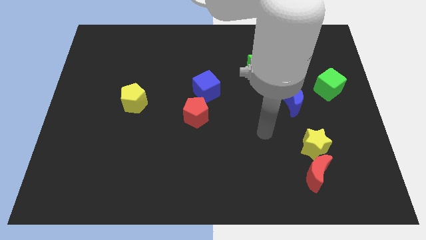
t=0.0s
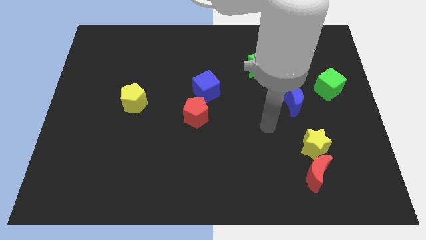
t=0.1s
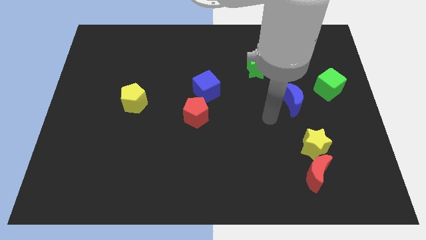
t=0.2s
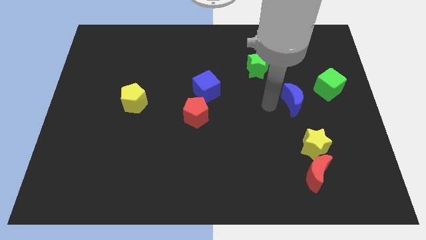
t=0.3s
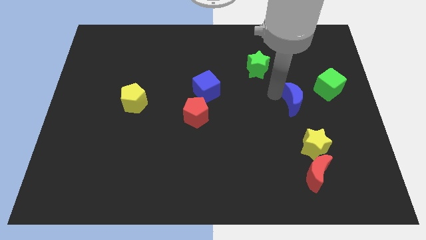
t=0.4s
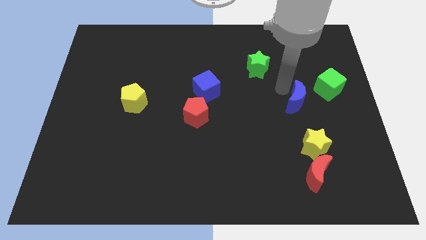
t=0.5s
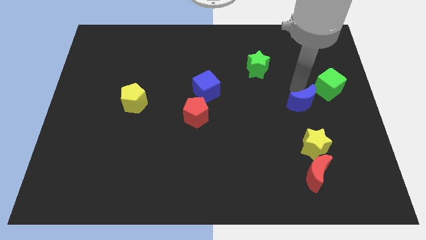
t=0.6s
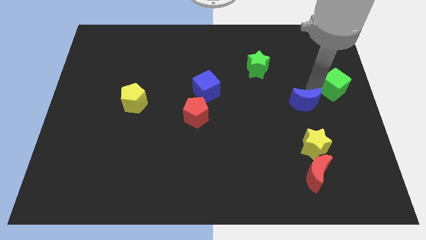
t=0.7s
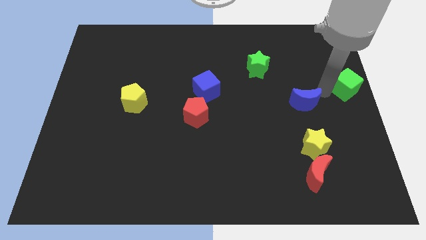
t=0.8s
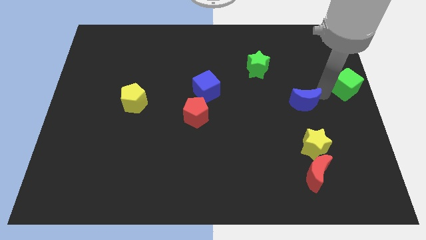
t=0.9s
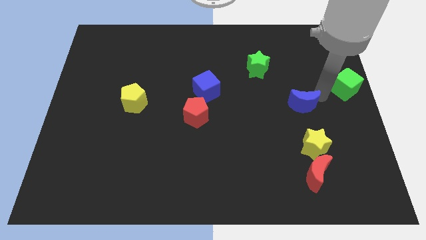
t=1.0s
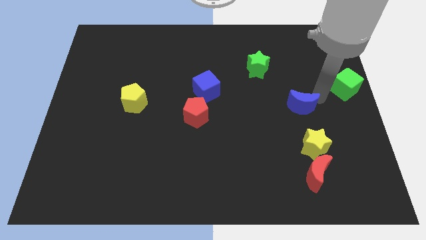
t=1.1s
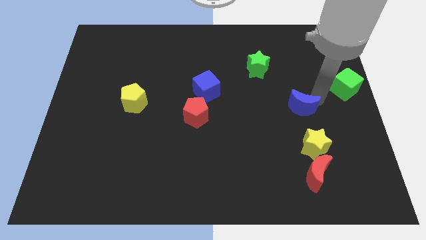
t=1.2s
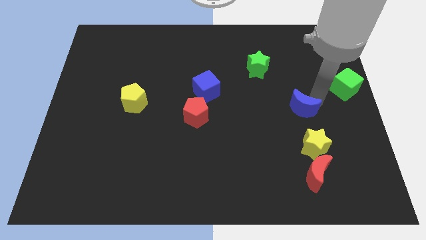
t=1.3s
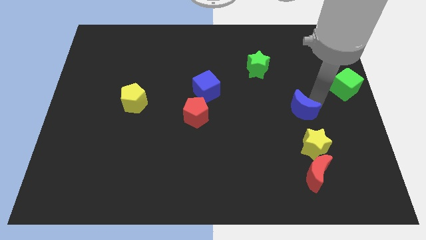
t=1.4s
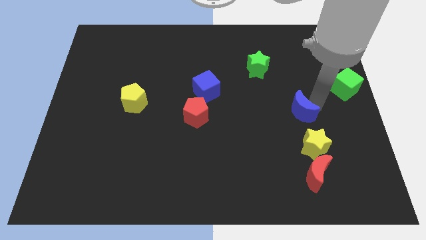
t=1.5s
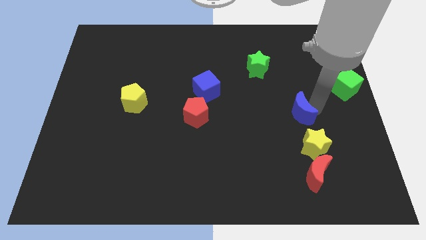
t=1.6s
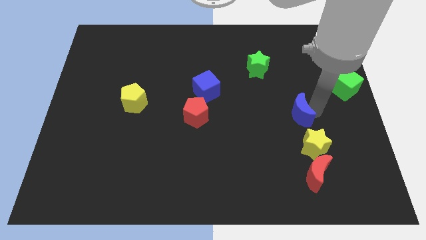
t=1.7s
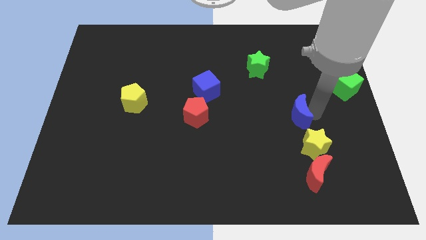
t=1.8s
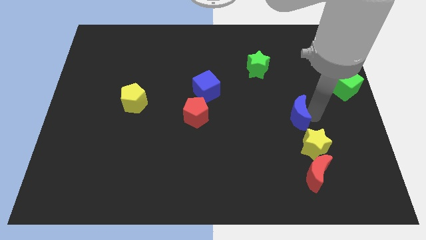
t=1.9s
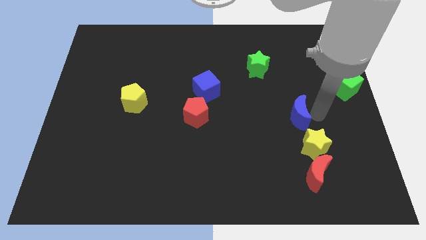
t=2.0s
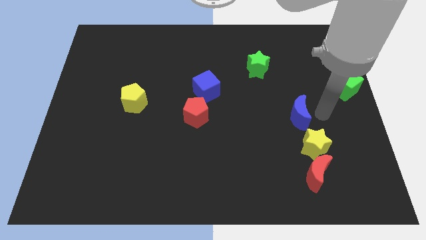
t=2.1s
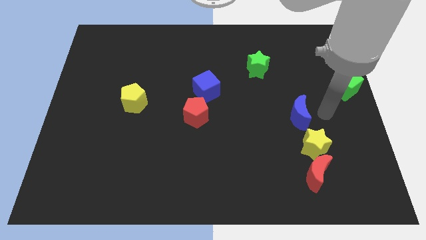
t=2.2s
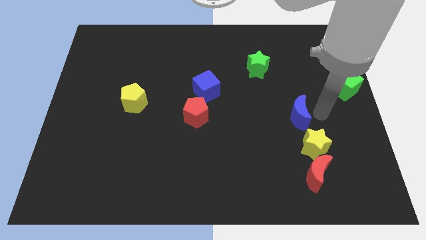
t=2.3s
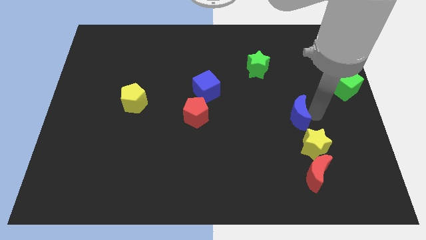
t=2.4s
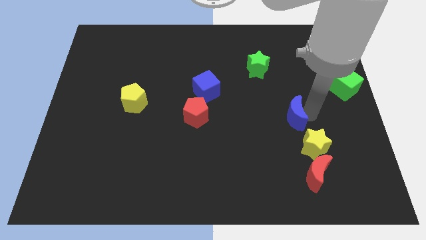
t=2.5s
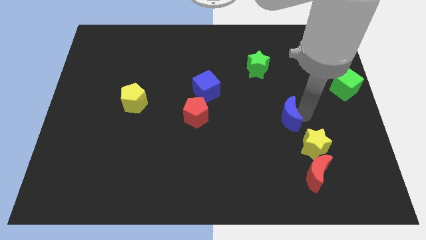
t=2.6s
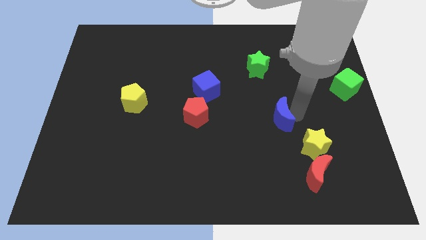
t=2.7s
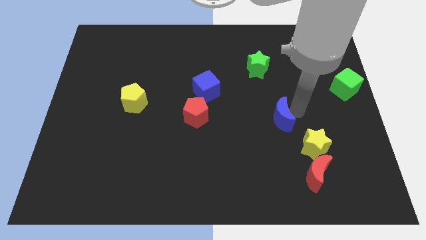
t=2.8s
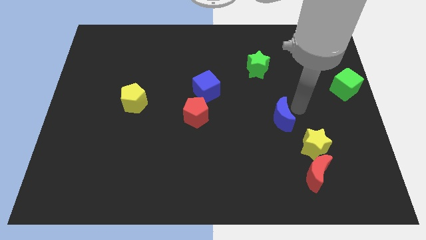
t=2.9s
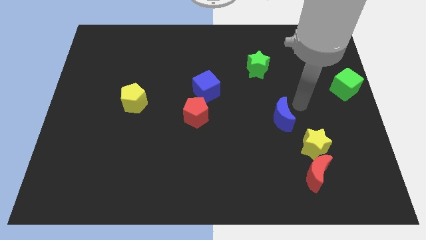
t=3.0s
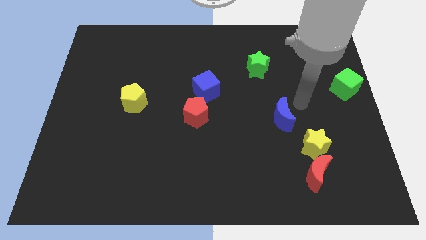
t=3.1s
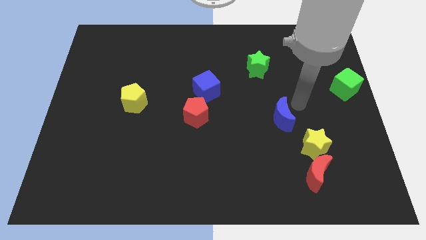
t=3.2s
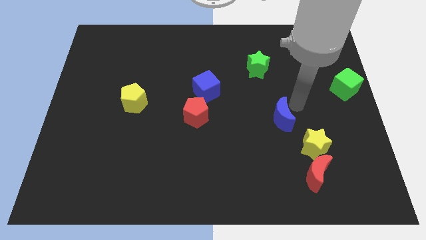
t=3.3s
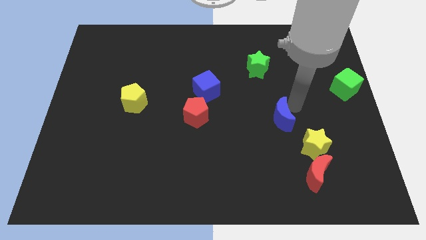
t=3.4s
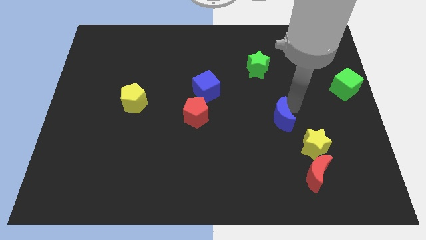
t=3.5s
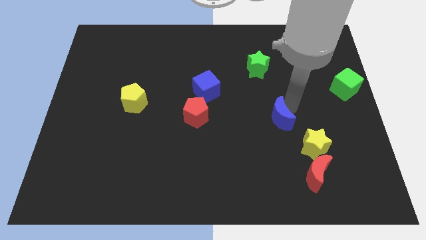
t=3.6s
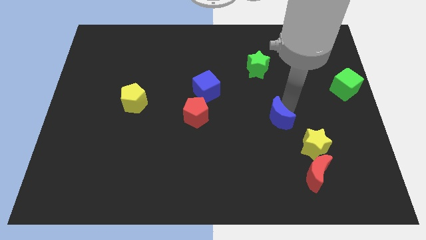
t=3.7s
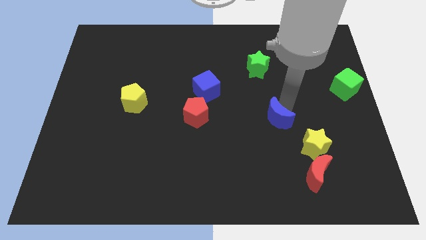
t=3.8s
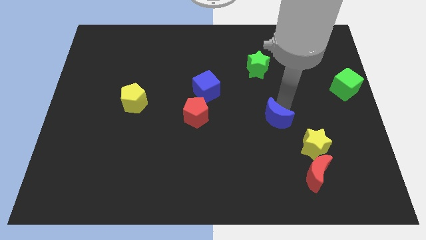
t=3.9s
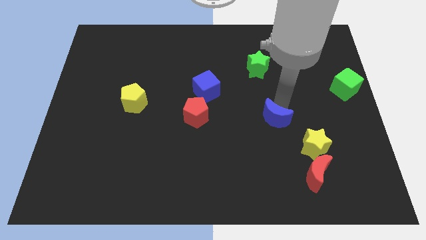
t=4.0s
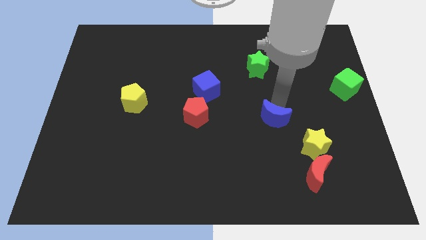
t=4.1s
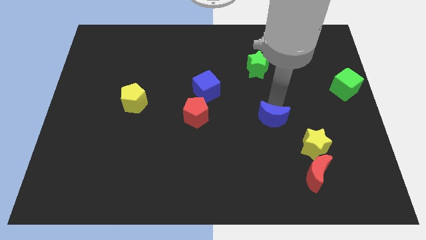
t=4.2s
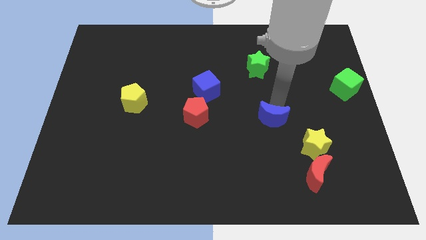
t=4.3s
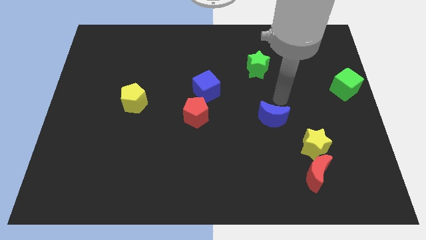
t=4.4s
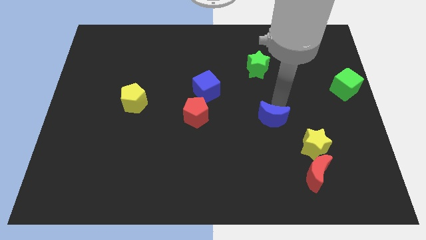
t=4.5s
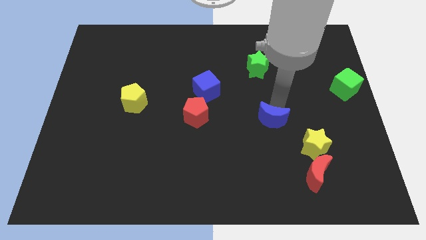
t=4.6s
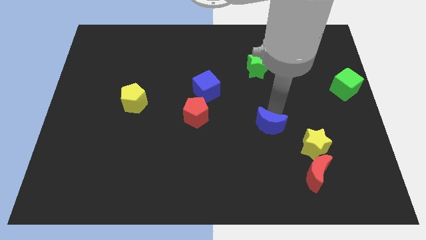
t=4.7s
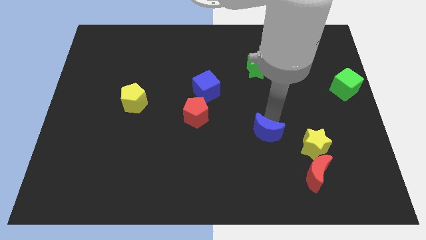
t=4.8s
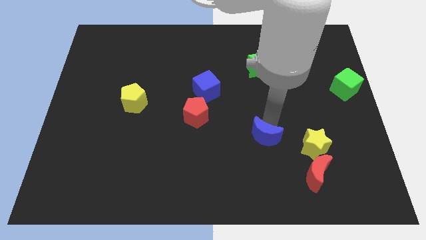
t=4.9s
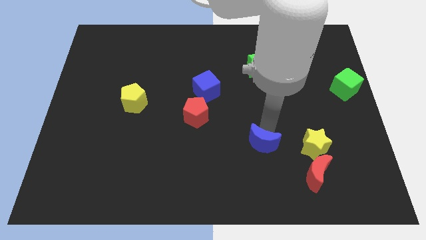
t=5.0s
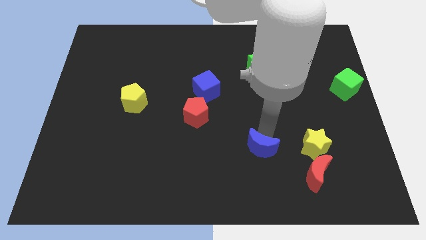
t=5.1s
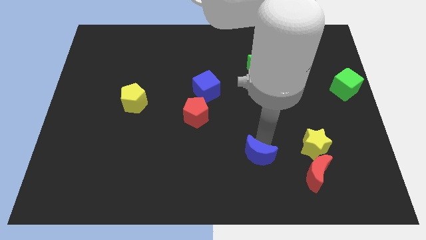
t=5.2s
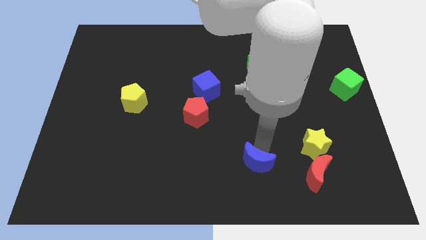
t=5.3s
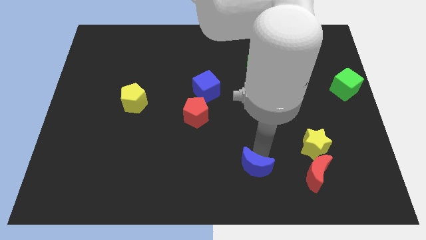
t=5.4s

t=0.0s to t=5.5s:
move the blue moon to the bottom
